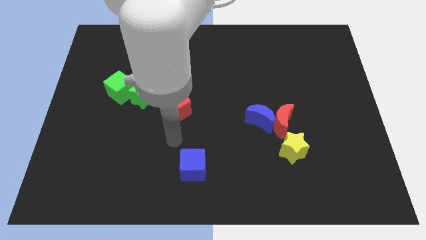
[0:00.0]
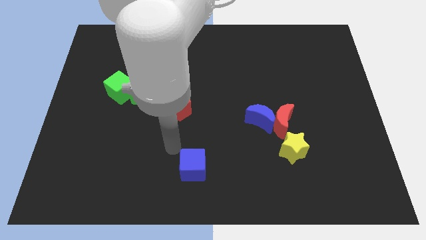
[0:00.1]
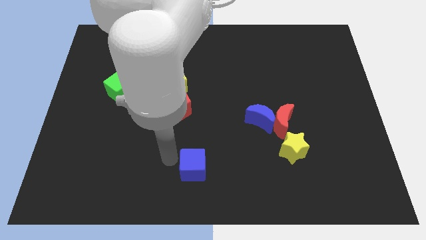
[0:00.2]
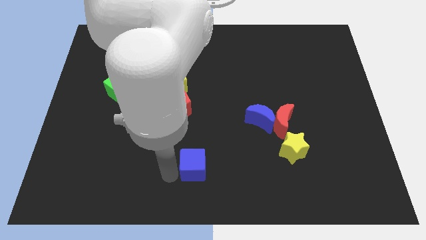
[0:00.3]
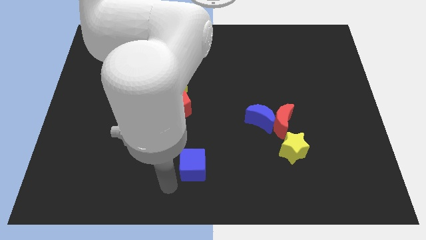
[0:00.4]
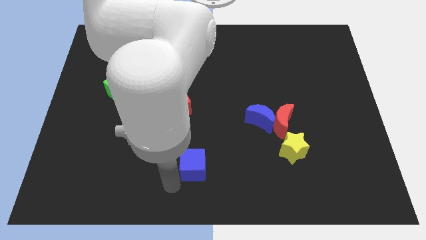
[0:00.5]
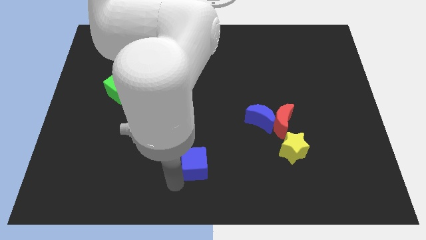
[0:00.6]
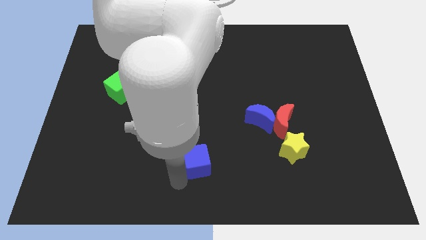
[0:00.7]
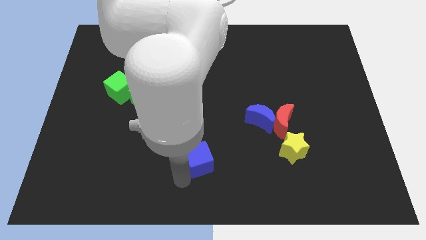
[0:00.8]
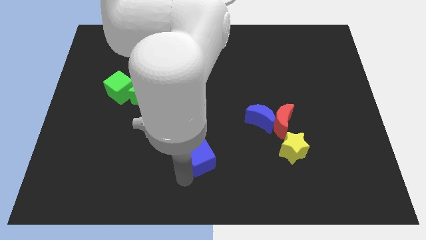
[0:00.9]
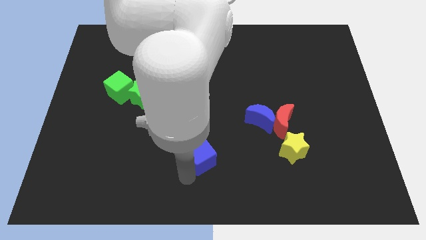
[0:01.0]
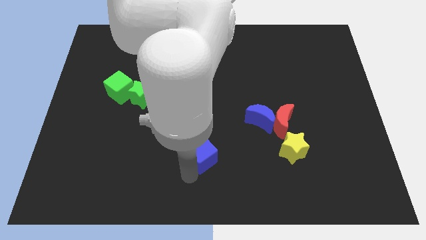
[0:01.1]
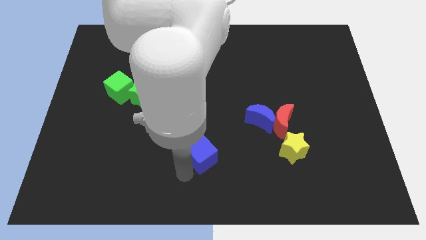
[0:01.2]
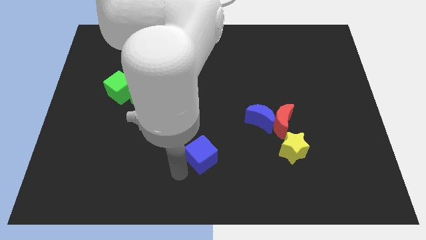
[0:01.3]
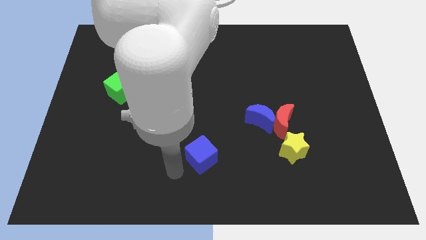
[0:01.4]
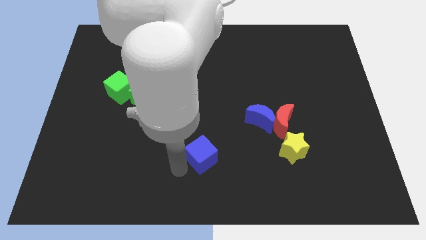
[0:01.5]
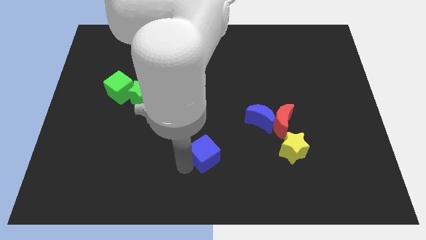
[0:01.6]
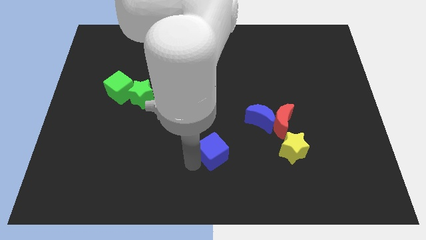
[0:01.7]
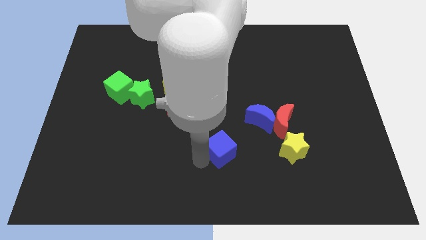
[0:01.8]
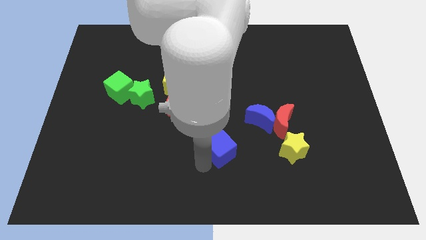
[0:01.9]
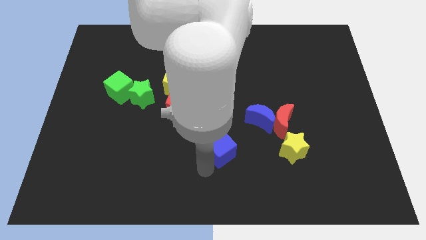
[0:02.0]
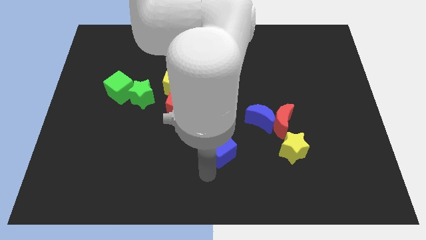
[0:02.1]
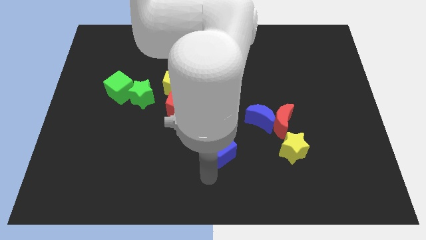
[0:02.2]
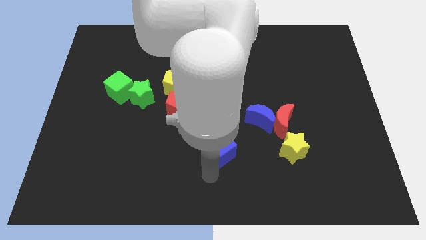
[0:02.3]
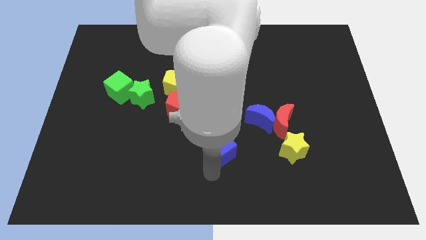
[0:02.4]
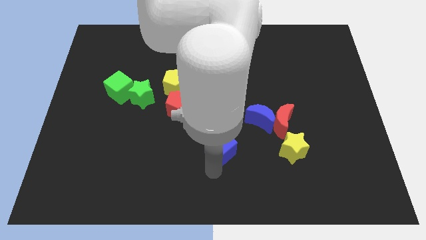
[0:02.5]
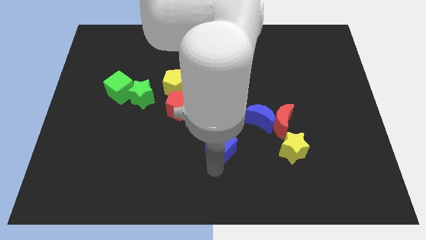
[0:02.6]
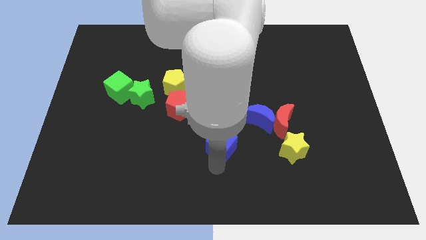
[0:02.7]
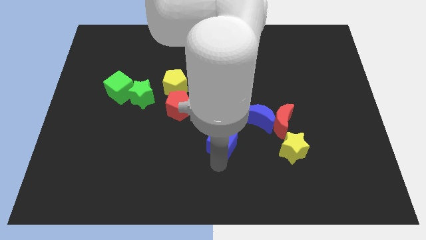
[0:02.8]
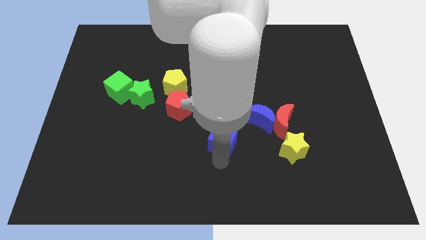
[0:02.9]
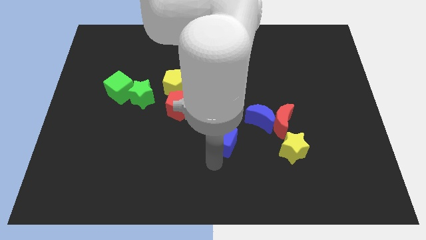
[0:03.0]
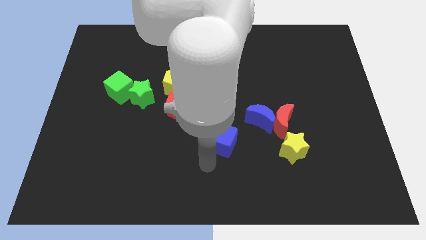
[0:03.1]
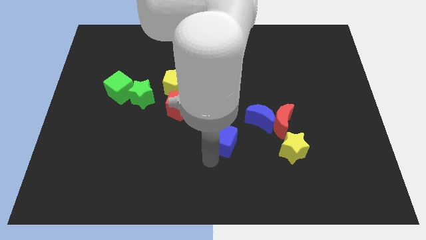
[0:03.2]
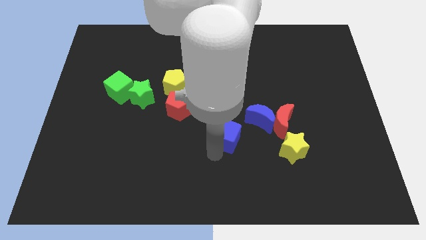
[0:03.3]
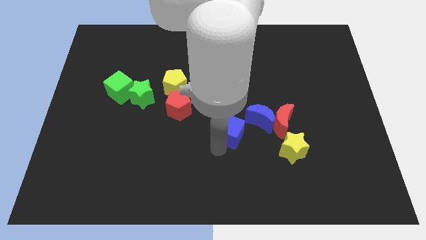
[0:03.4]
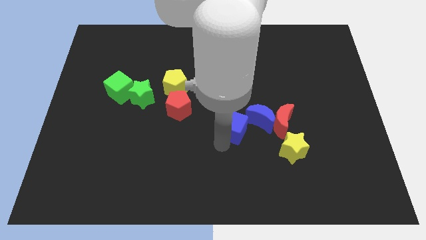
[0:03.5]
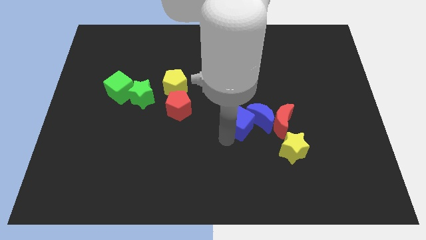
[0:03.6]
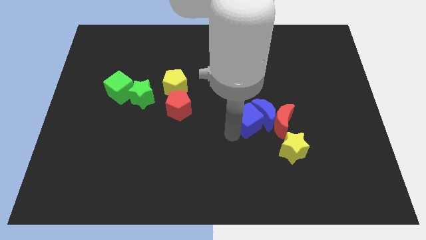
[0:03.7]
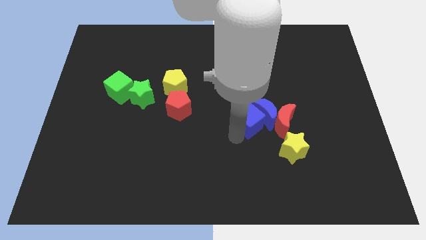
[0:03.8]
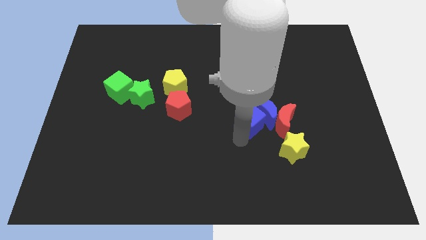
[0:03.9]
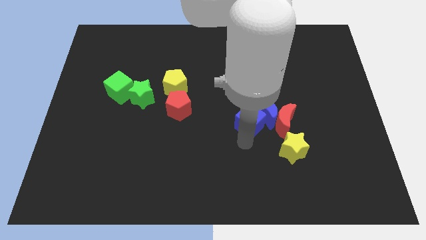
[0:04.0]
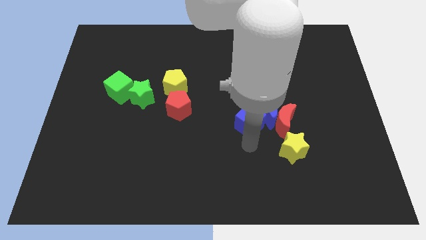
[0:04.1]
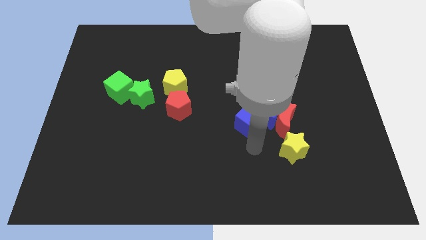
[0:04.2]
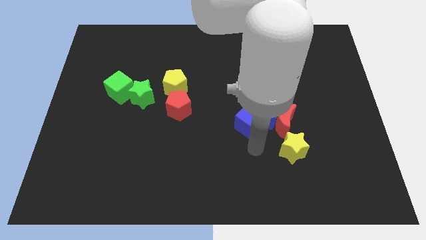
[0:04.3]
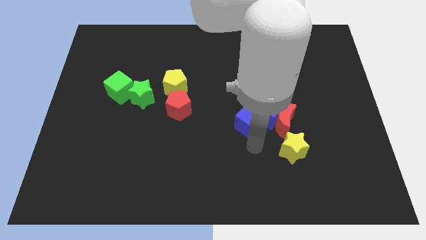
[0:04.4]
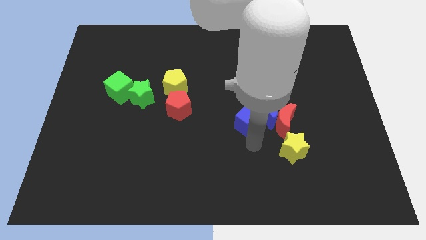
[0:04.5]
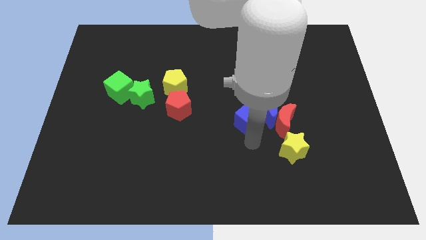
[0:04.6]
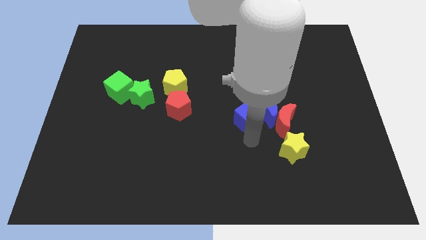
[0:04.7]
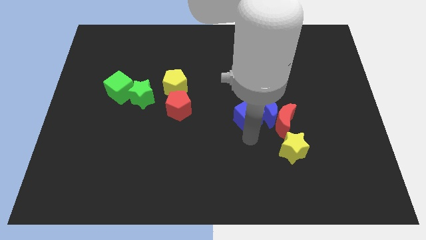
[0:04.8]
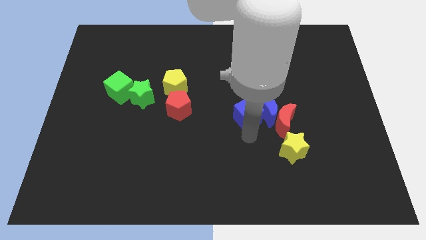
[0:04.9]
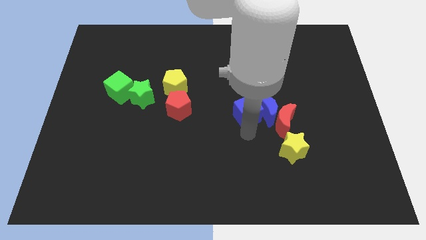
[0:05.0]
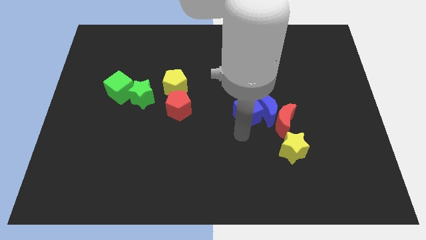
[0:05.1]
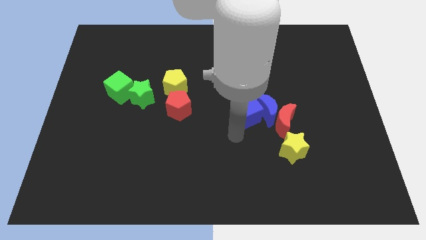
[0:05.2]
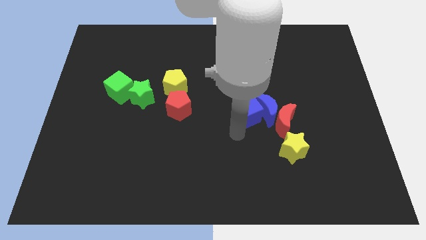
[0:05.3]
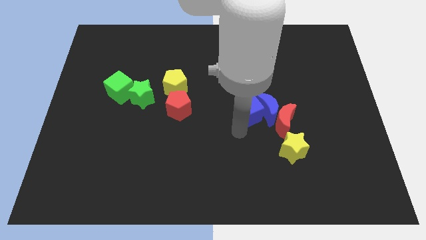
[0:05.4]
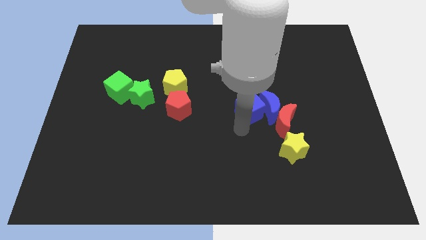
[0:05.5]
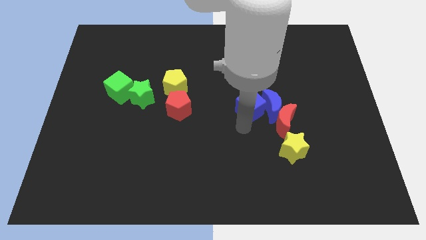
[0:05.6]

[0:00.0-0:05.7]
push the blue cube diagonally up and to the right

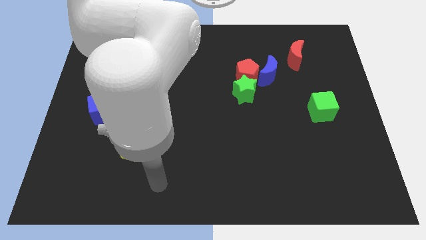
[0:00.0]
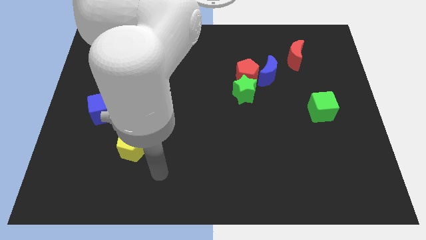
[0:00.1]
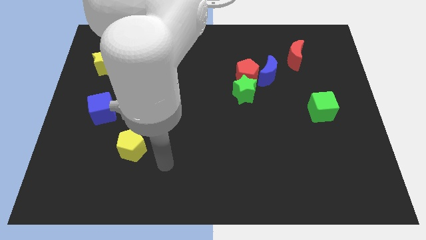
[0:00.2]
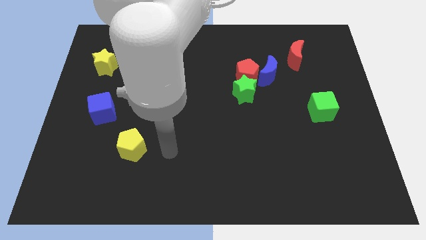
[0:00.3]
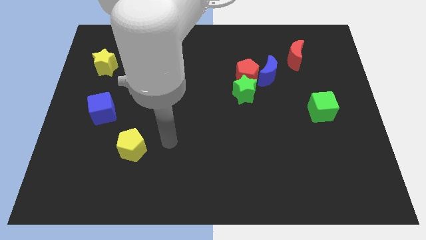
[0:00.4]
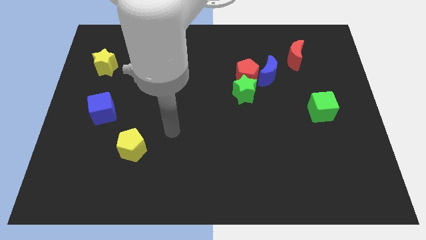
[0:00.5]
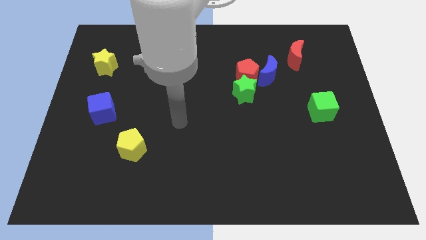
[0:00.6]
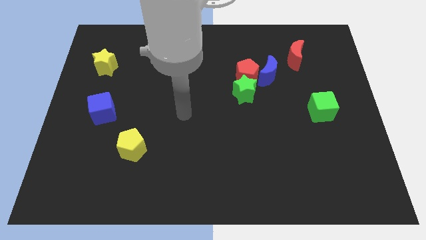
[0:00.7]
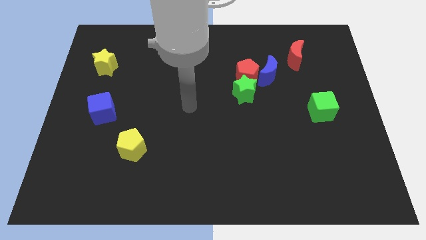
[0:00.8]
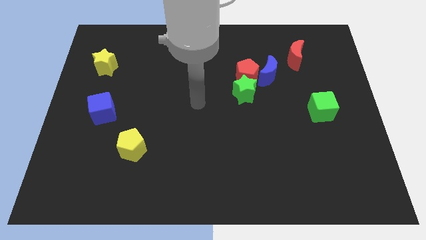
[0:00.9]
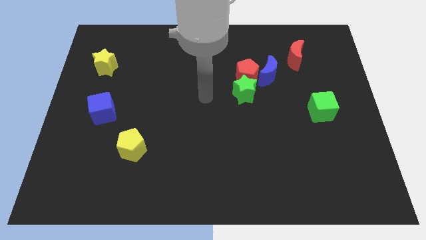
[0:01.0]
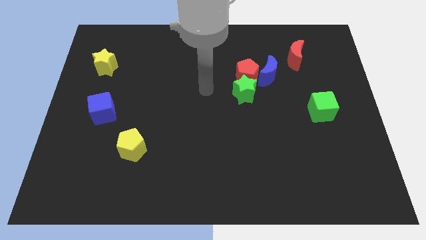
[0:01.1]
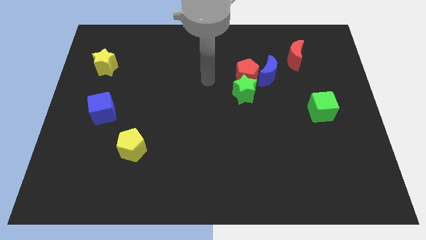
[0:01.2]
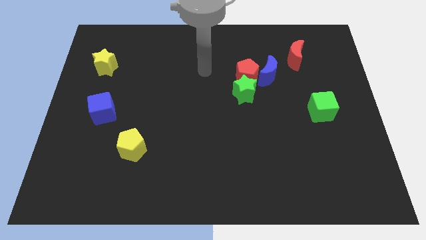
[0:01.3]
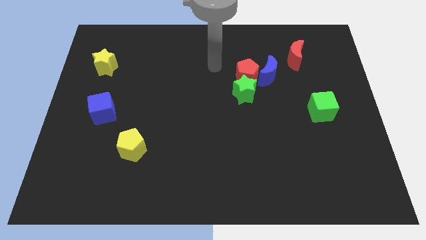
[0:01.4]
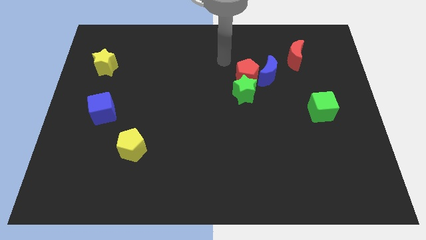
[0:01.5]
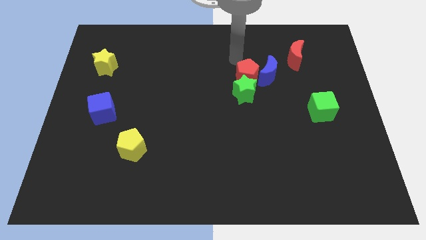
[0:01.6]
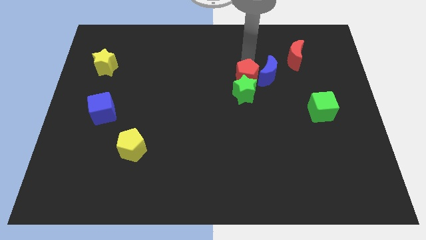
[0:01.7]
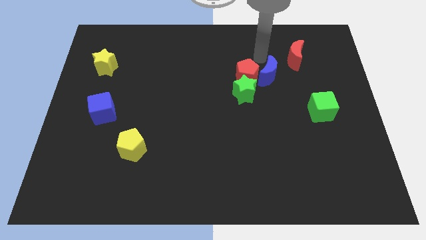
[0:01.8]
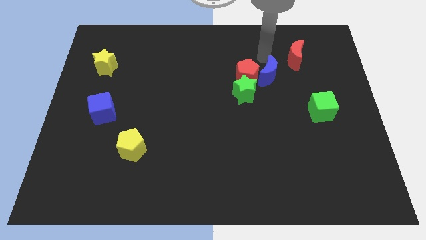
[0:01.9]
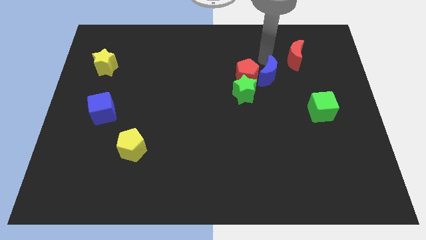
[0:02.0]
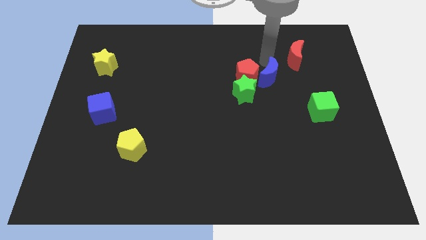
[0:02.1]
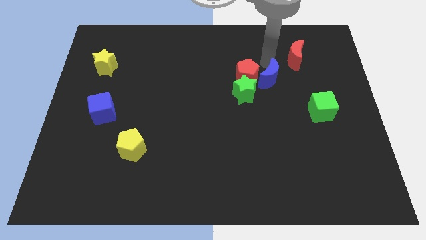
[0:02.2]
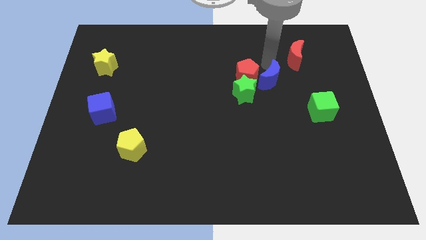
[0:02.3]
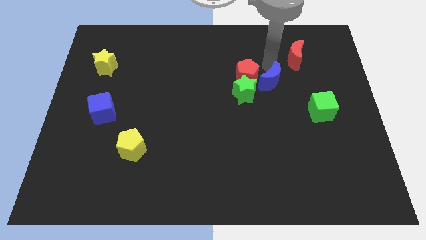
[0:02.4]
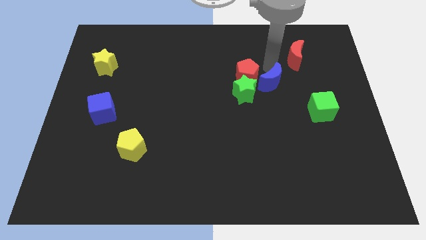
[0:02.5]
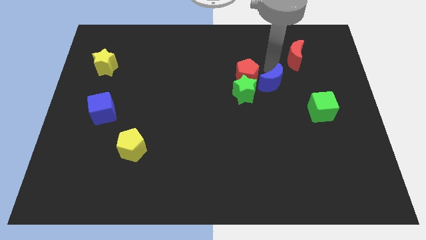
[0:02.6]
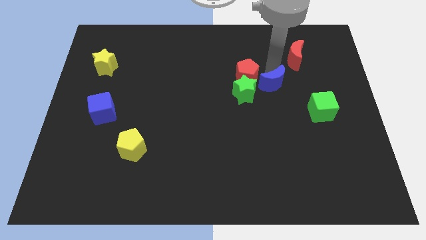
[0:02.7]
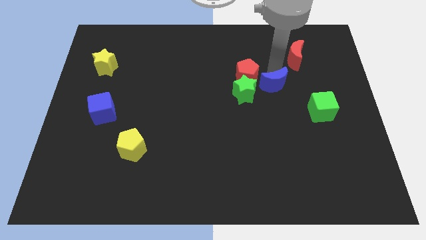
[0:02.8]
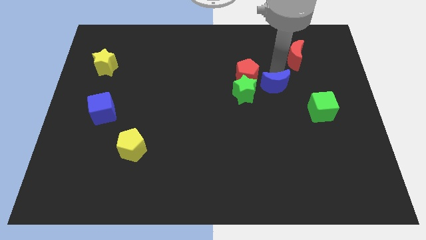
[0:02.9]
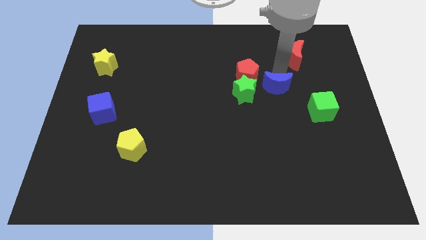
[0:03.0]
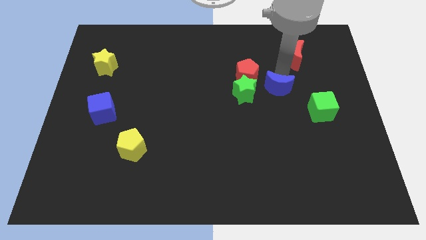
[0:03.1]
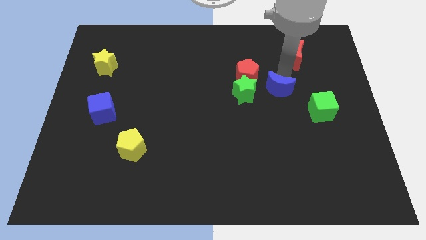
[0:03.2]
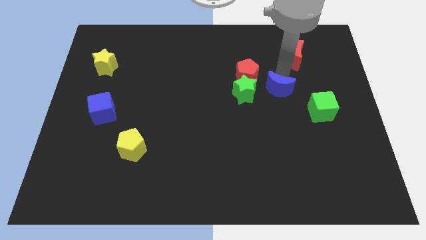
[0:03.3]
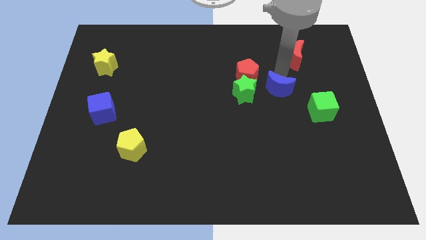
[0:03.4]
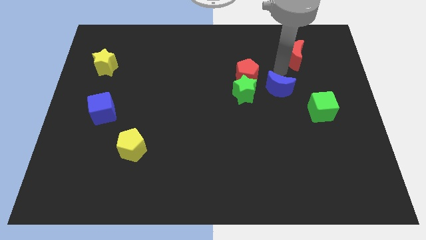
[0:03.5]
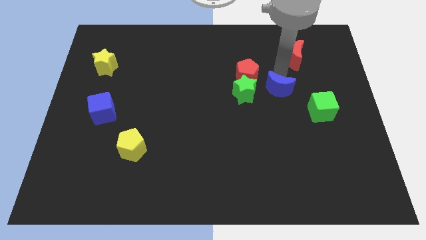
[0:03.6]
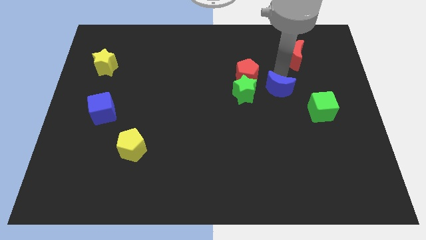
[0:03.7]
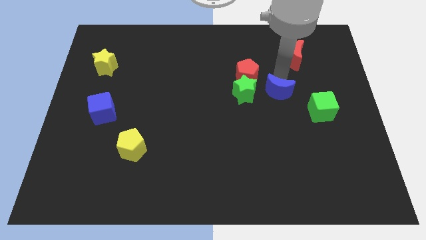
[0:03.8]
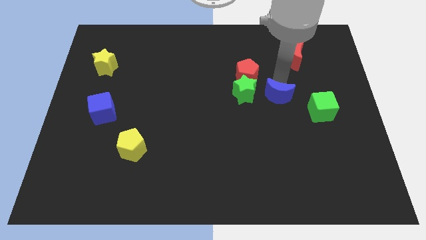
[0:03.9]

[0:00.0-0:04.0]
slide the blue moon downwards a little
